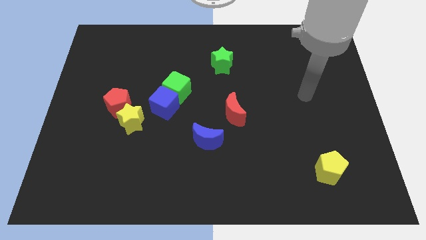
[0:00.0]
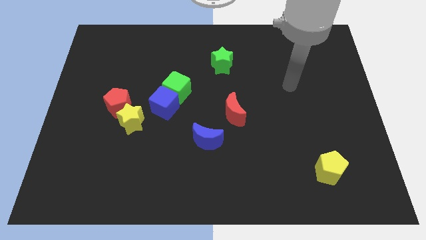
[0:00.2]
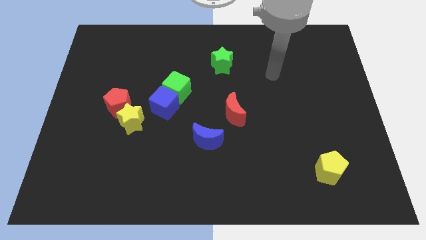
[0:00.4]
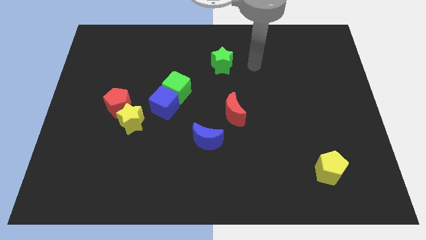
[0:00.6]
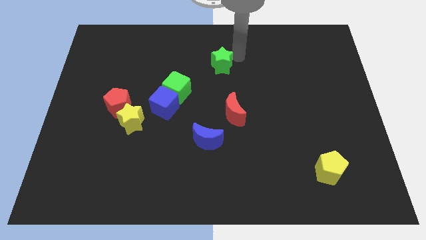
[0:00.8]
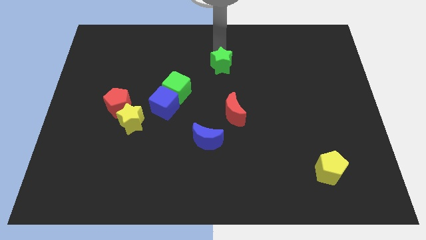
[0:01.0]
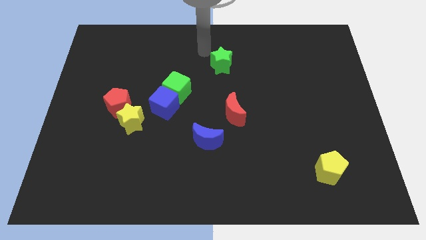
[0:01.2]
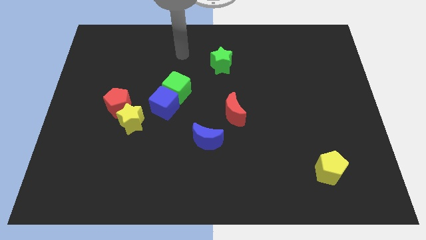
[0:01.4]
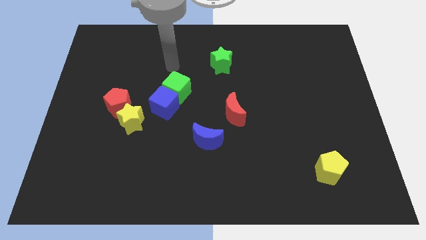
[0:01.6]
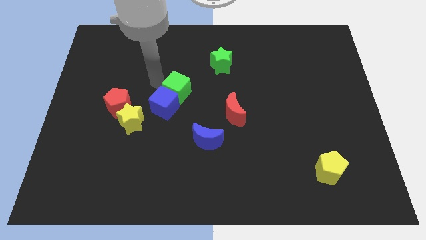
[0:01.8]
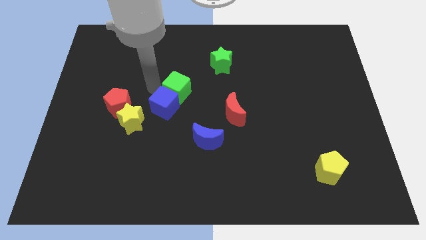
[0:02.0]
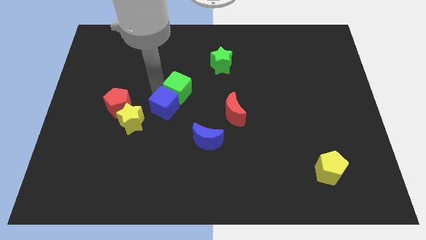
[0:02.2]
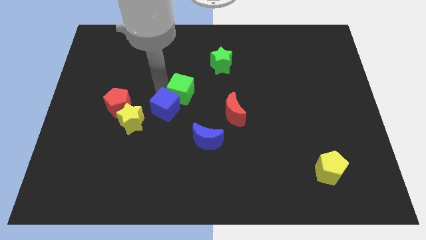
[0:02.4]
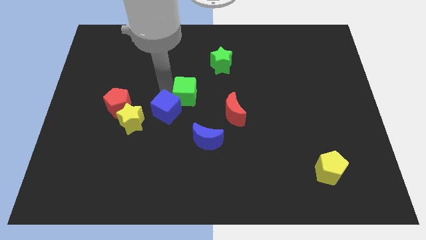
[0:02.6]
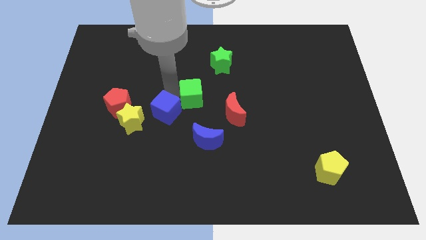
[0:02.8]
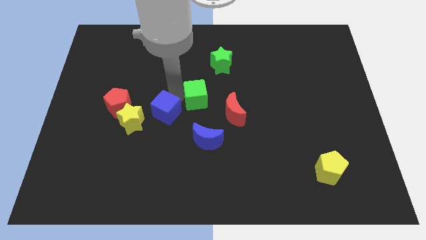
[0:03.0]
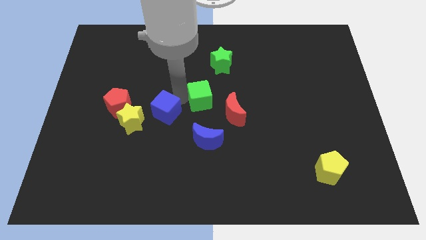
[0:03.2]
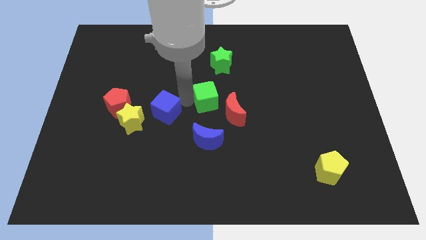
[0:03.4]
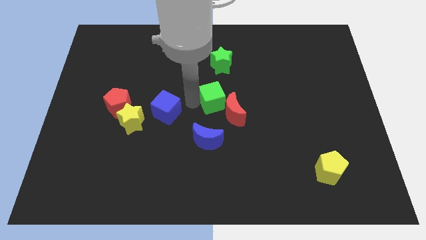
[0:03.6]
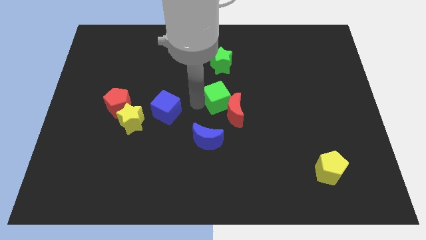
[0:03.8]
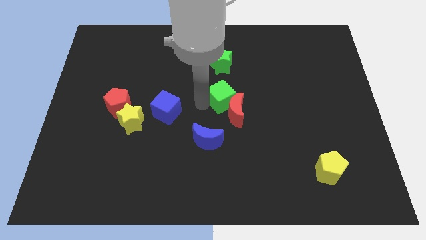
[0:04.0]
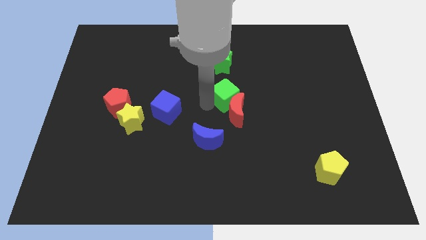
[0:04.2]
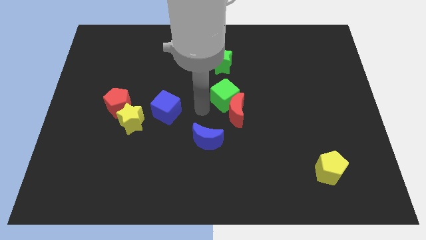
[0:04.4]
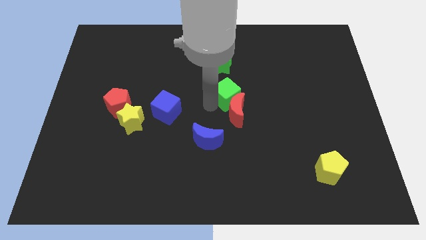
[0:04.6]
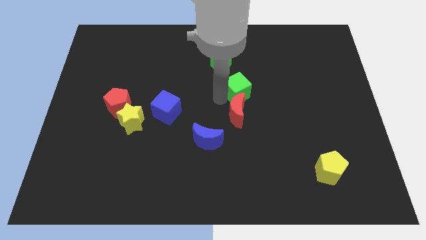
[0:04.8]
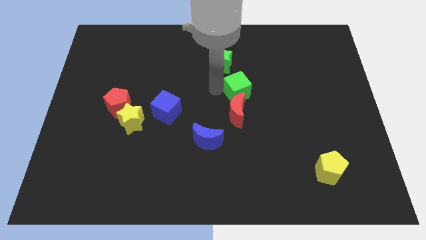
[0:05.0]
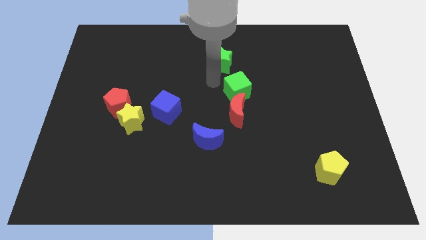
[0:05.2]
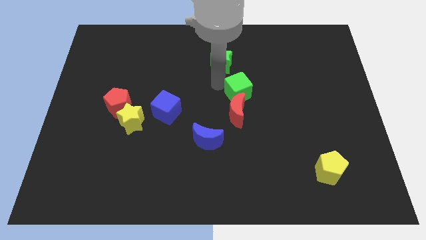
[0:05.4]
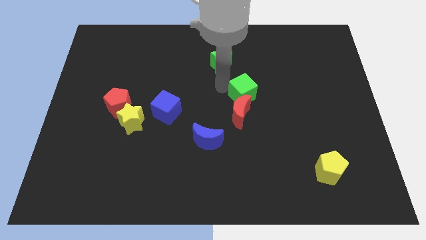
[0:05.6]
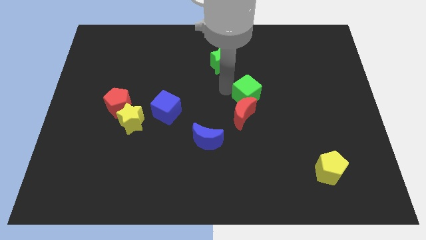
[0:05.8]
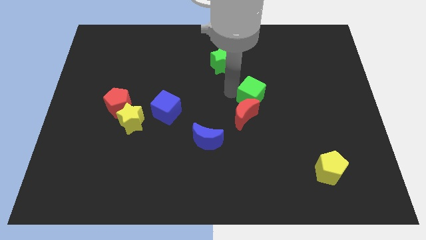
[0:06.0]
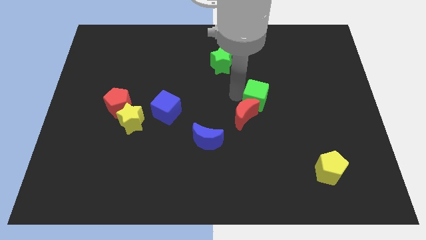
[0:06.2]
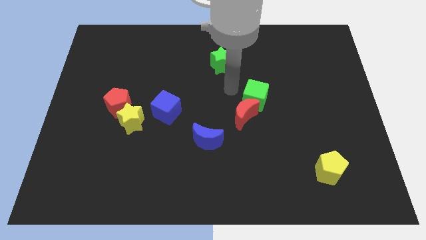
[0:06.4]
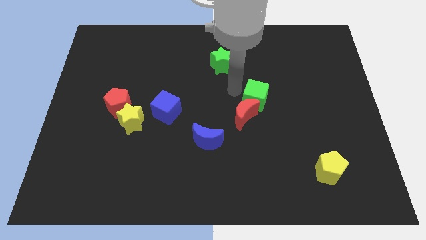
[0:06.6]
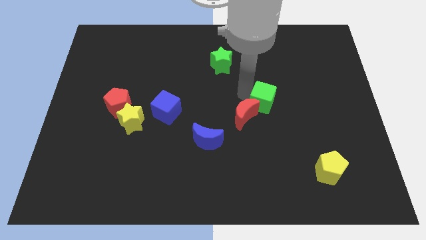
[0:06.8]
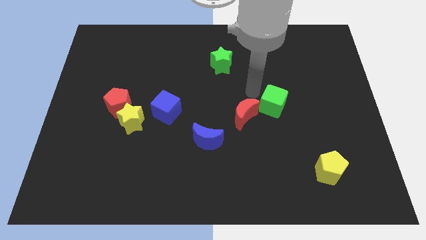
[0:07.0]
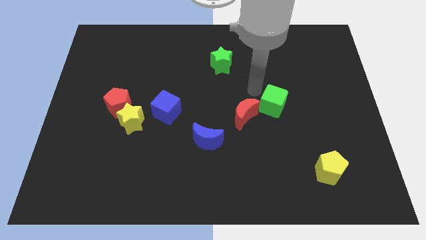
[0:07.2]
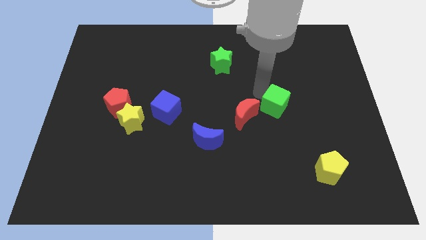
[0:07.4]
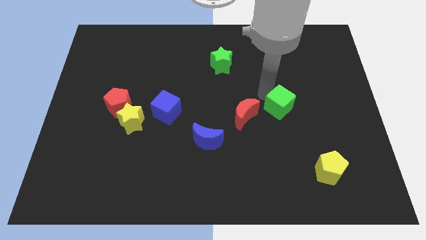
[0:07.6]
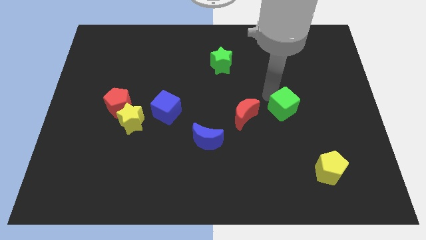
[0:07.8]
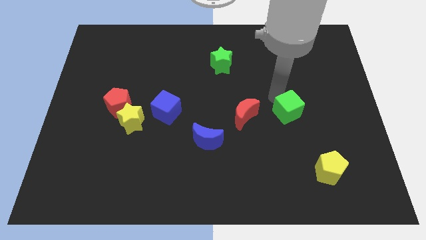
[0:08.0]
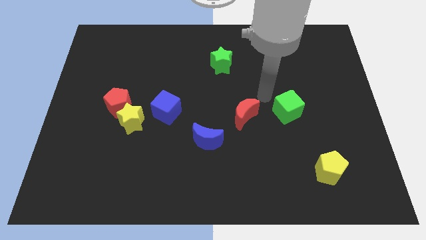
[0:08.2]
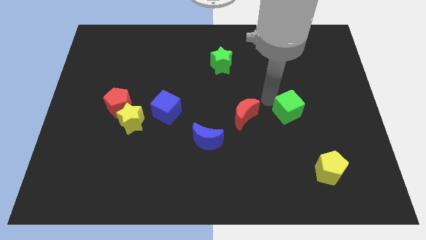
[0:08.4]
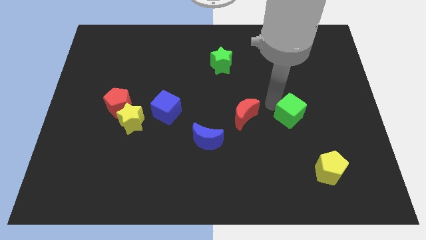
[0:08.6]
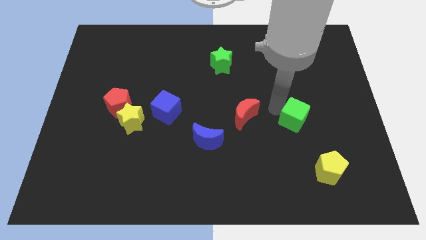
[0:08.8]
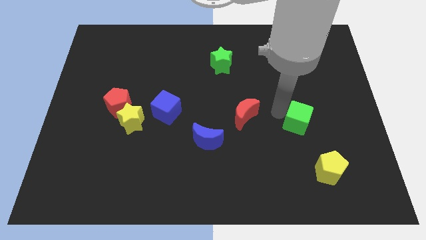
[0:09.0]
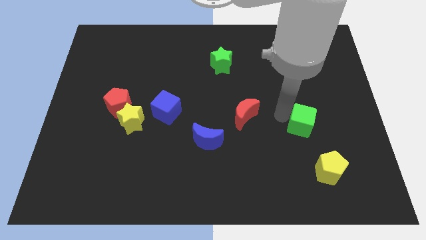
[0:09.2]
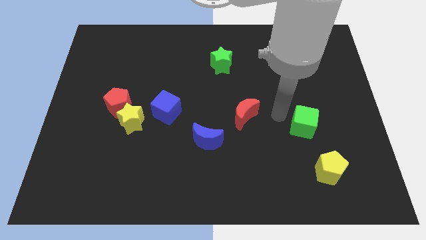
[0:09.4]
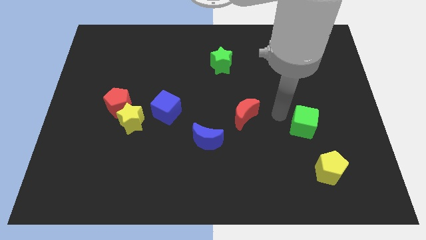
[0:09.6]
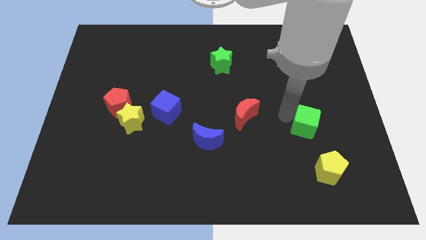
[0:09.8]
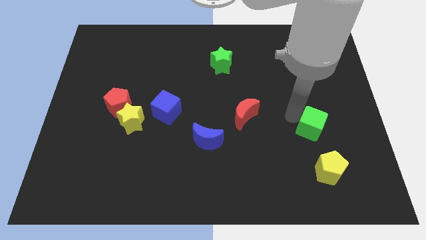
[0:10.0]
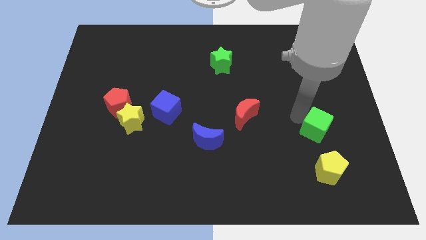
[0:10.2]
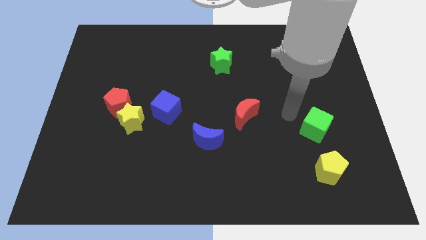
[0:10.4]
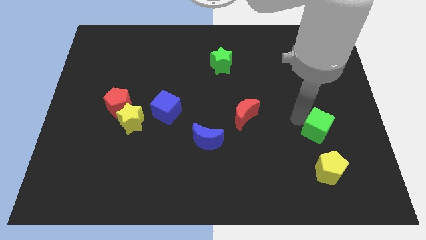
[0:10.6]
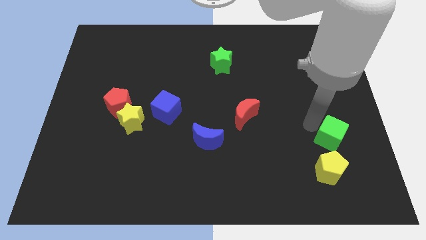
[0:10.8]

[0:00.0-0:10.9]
put the green cube diagonally up and to the right of the yellow pentagon

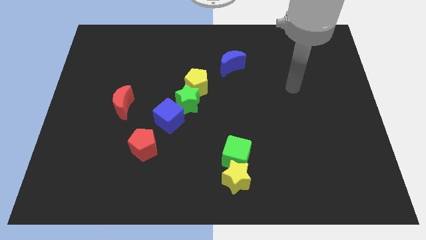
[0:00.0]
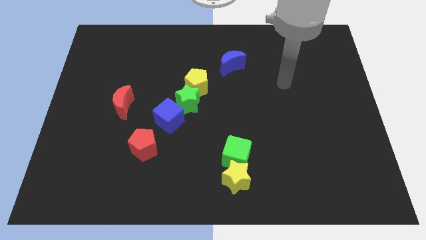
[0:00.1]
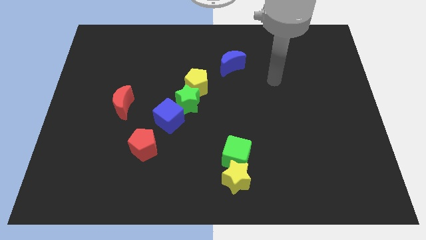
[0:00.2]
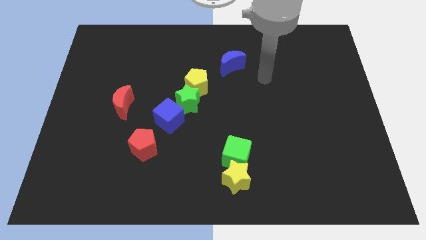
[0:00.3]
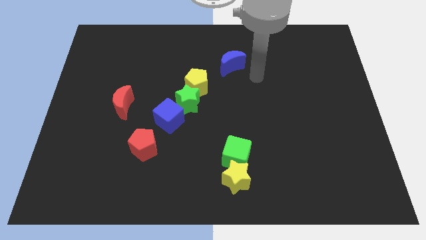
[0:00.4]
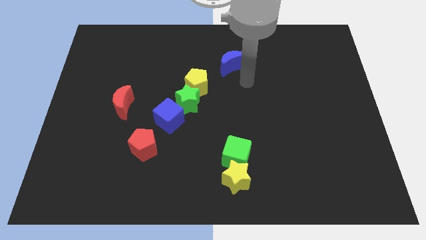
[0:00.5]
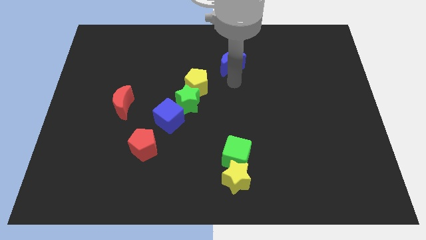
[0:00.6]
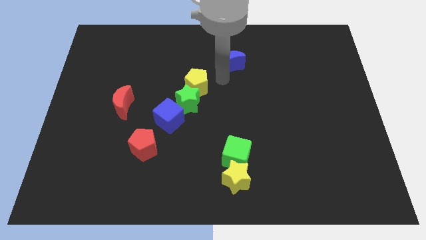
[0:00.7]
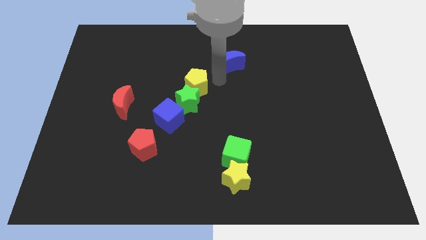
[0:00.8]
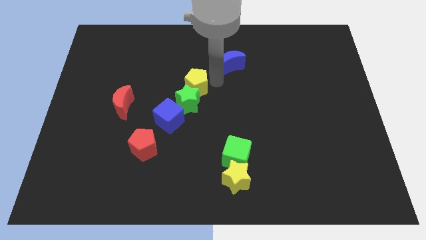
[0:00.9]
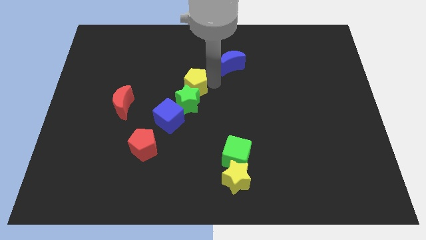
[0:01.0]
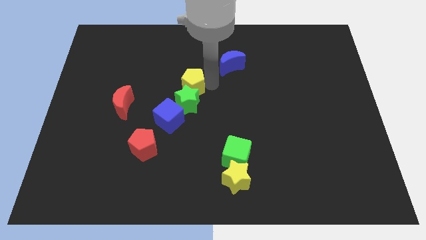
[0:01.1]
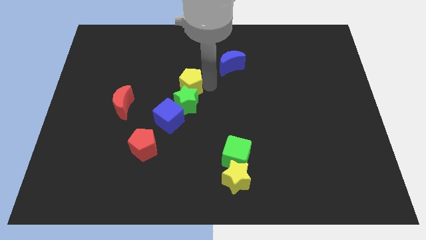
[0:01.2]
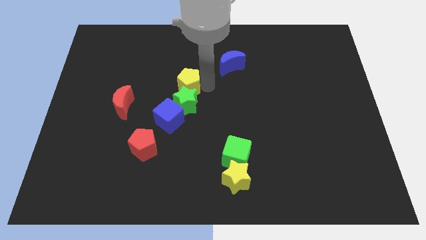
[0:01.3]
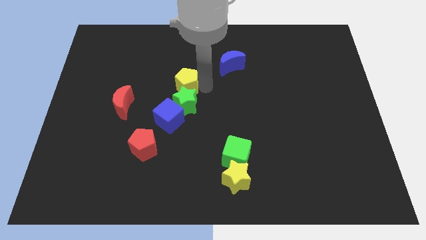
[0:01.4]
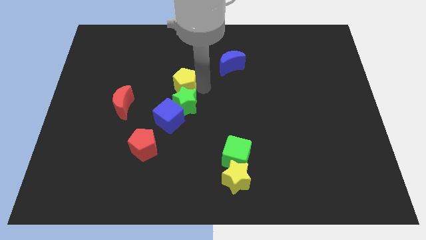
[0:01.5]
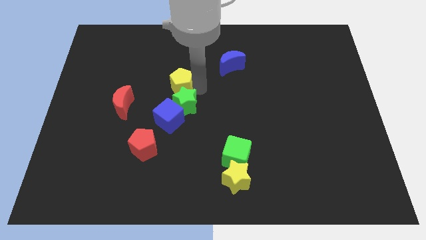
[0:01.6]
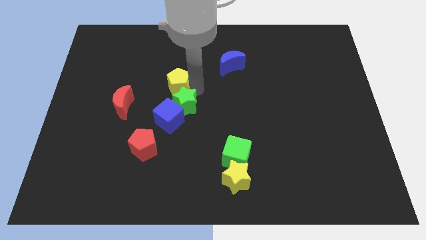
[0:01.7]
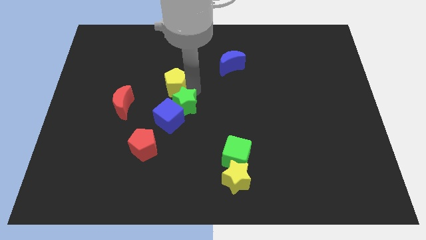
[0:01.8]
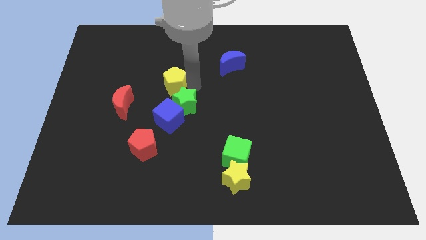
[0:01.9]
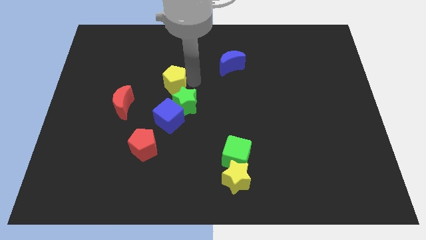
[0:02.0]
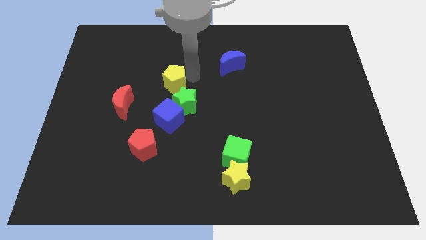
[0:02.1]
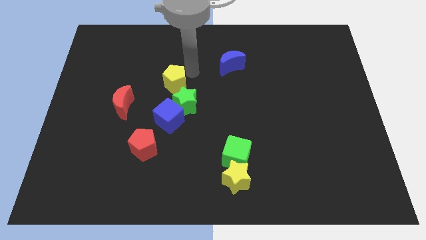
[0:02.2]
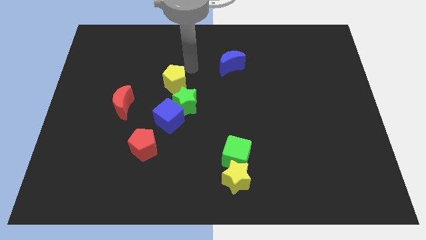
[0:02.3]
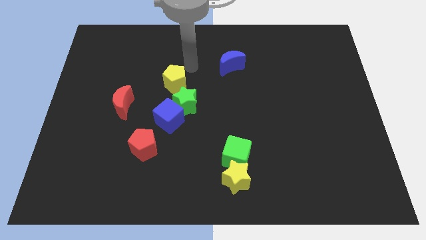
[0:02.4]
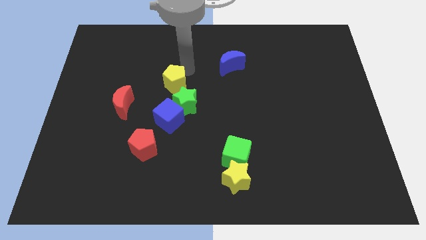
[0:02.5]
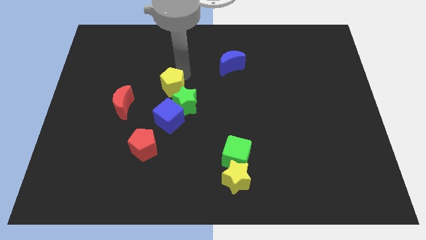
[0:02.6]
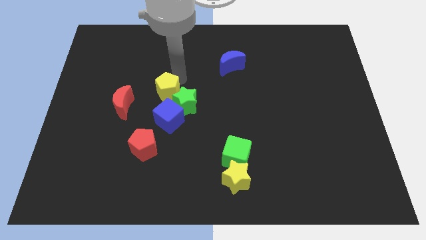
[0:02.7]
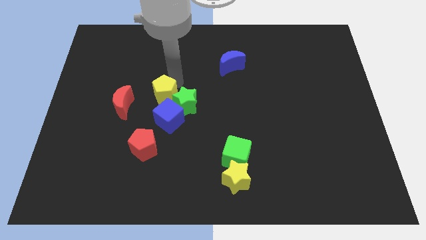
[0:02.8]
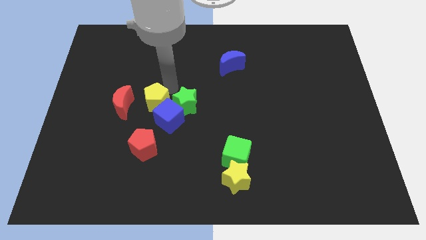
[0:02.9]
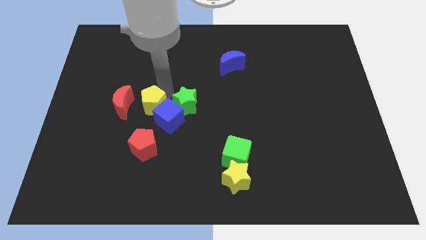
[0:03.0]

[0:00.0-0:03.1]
put the yellow pentagon just left of the blue cube
